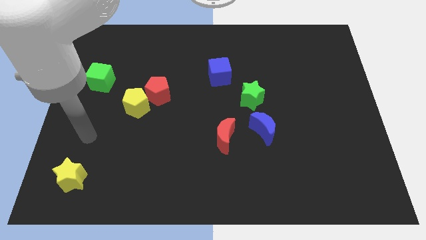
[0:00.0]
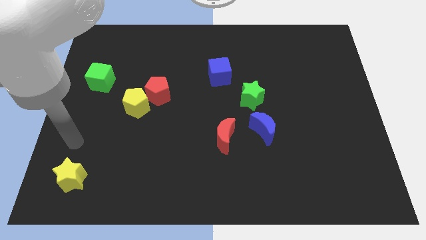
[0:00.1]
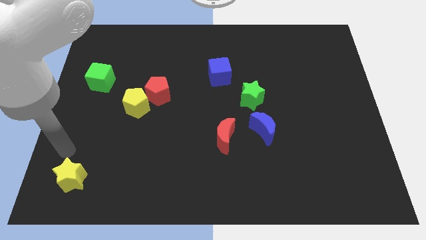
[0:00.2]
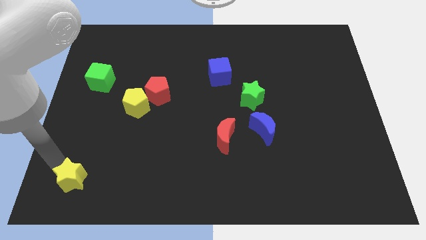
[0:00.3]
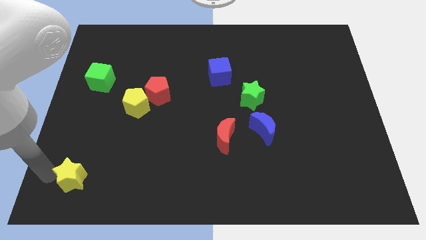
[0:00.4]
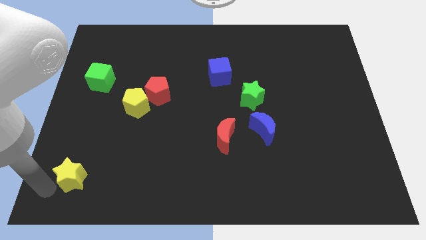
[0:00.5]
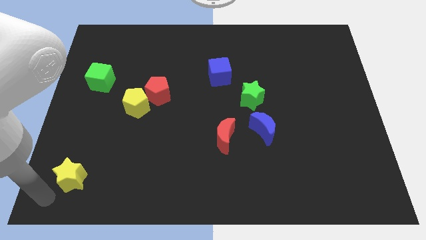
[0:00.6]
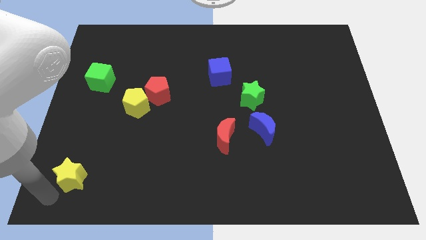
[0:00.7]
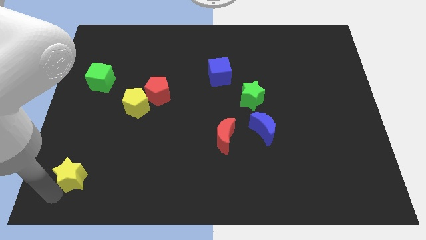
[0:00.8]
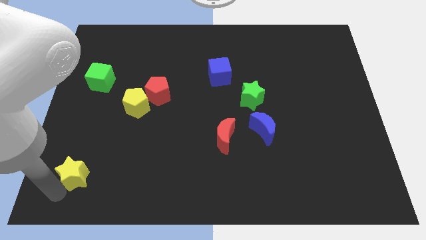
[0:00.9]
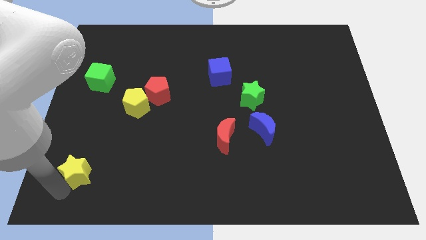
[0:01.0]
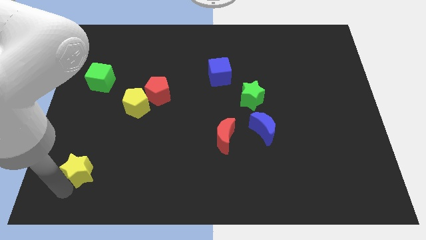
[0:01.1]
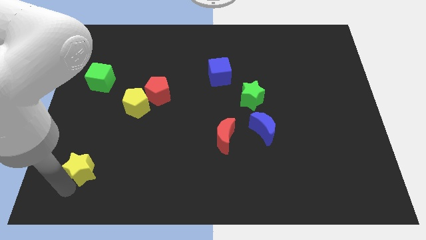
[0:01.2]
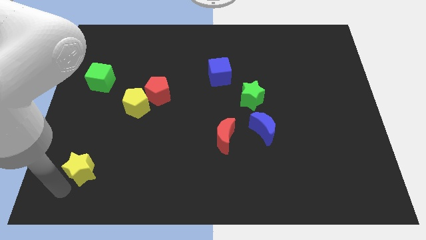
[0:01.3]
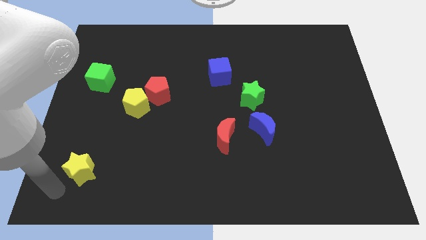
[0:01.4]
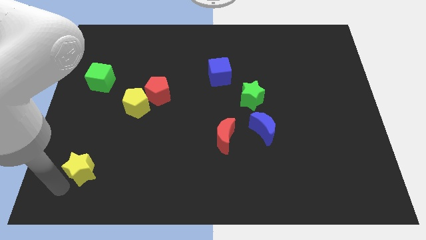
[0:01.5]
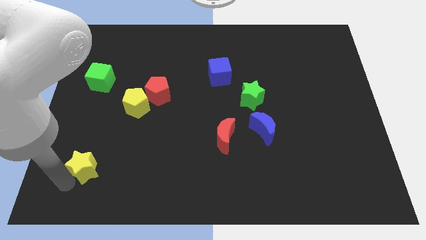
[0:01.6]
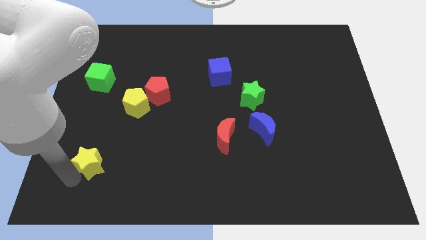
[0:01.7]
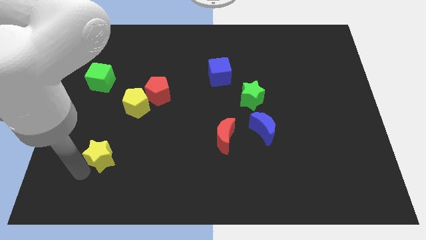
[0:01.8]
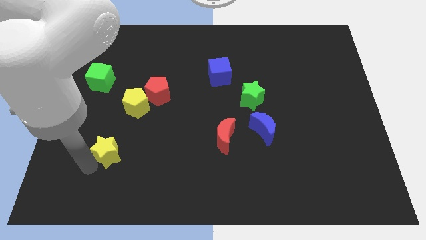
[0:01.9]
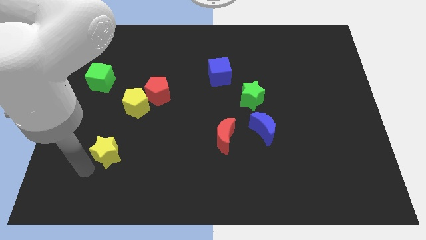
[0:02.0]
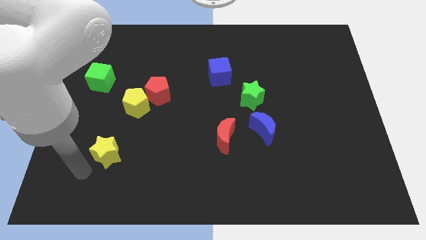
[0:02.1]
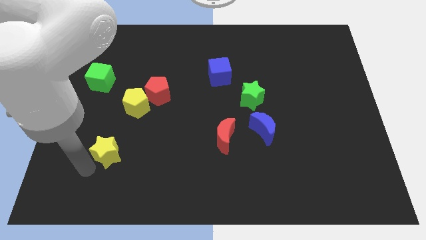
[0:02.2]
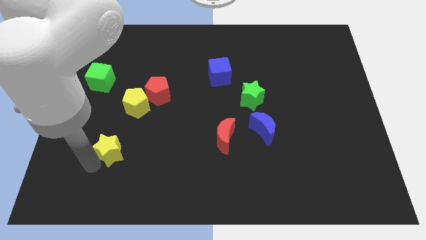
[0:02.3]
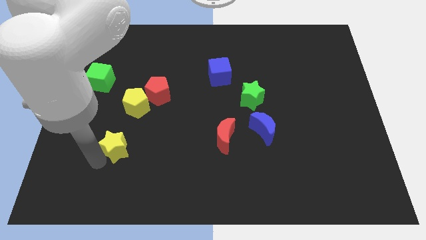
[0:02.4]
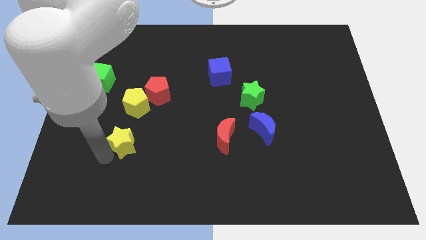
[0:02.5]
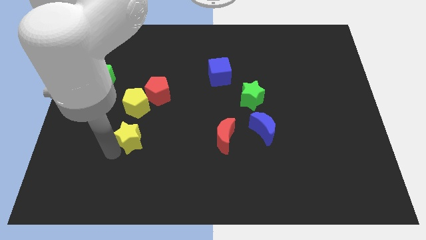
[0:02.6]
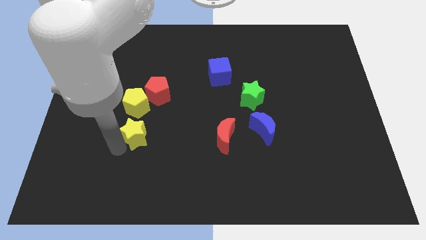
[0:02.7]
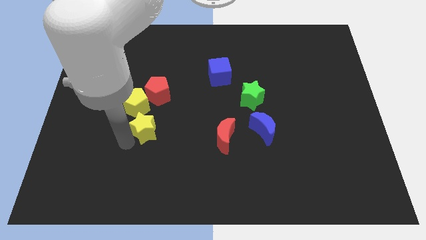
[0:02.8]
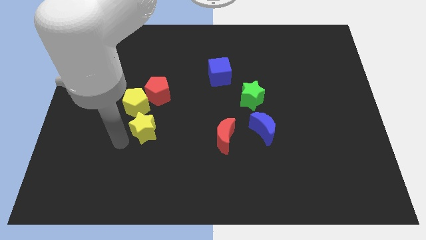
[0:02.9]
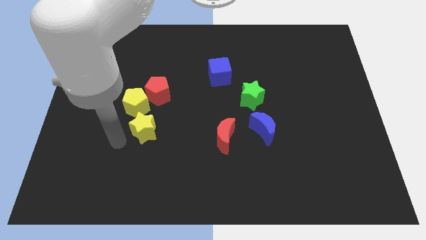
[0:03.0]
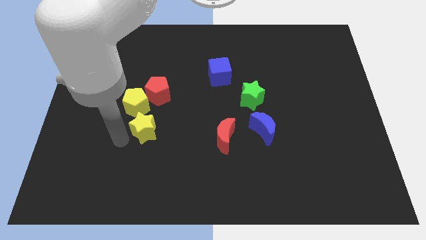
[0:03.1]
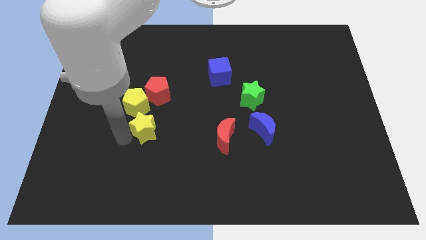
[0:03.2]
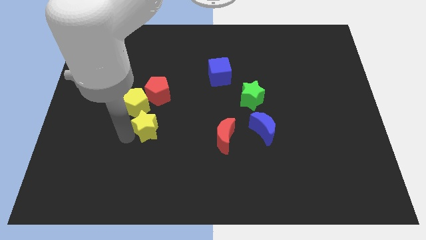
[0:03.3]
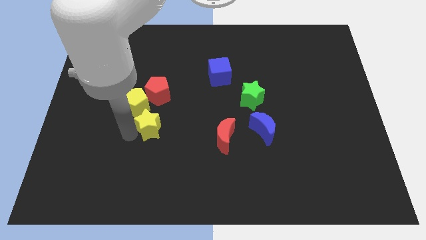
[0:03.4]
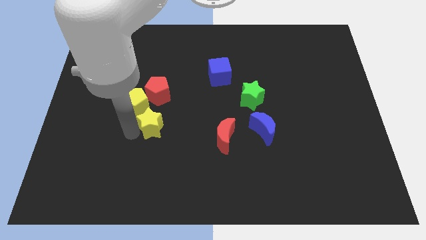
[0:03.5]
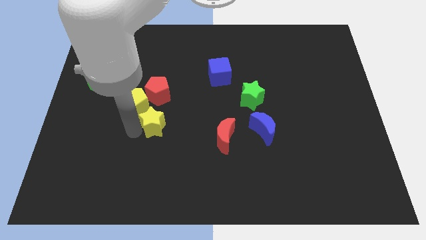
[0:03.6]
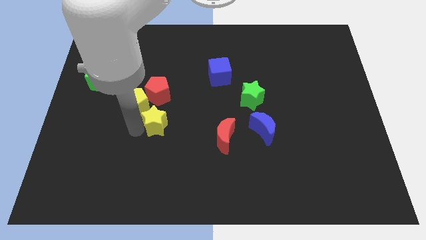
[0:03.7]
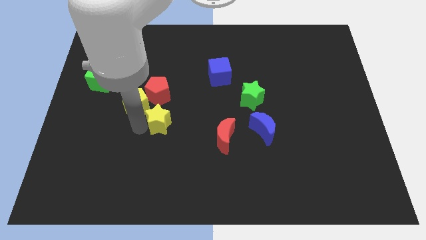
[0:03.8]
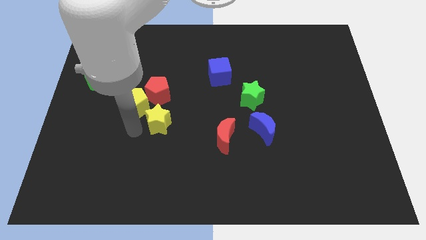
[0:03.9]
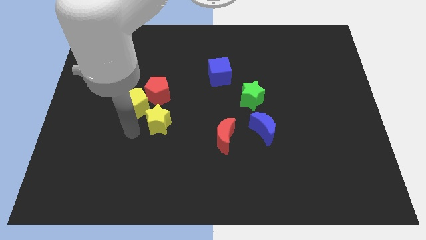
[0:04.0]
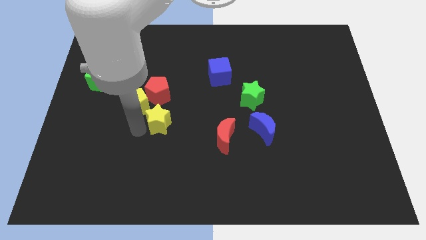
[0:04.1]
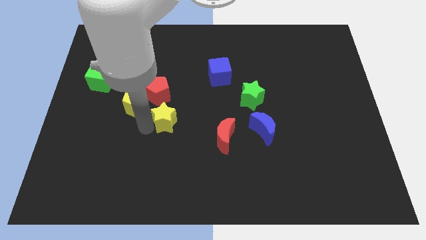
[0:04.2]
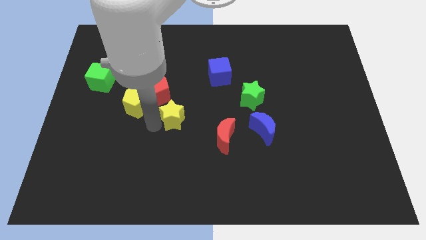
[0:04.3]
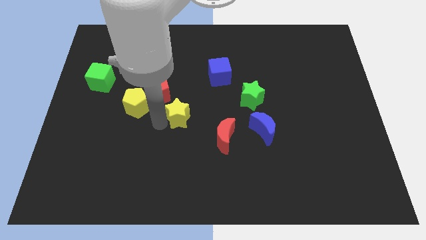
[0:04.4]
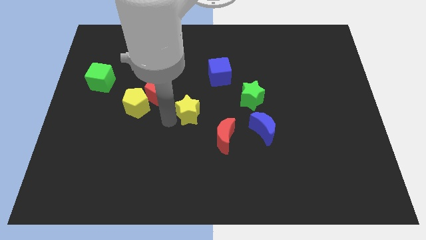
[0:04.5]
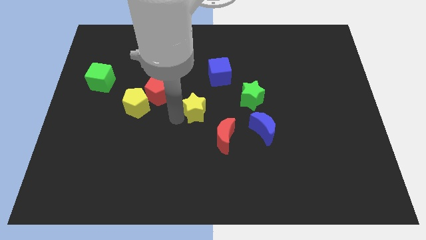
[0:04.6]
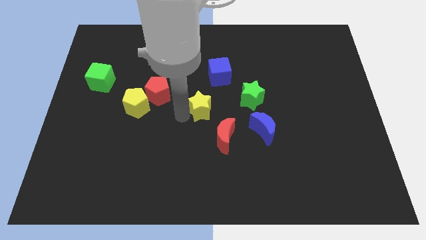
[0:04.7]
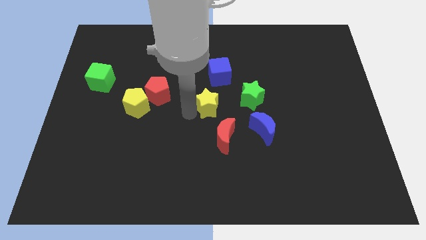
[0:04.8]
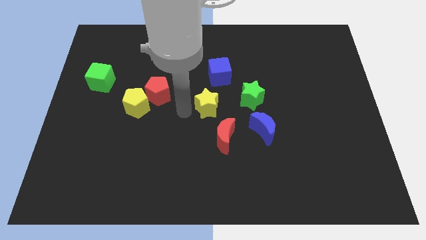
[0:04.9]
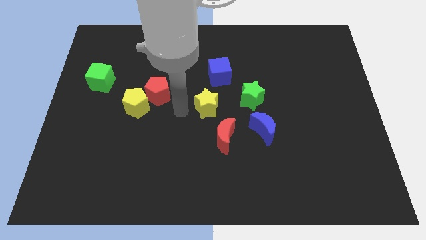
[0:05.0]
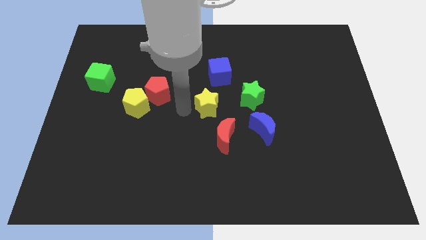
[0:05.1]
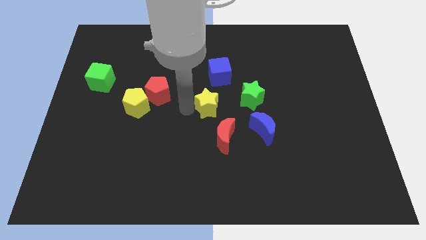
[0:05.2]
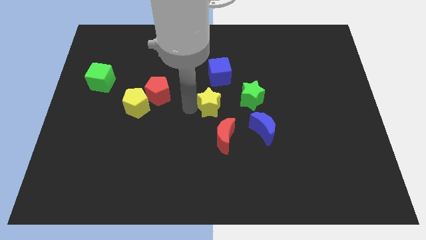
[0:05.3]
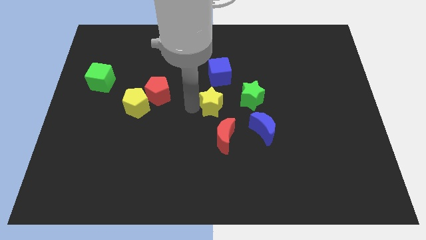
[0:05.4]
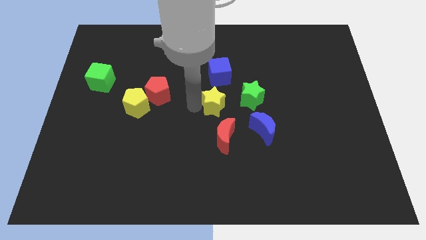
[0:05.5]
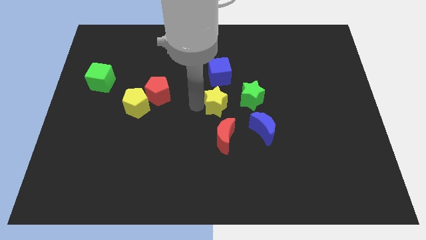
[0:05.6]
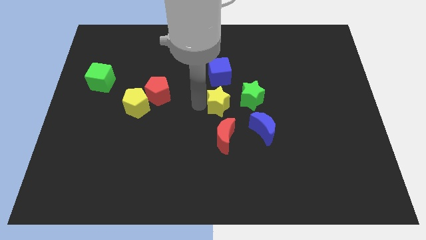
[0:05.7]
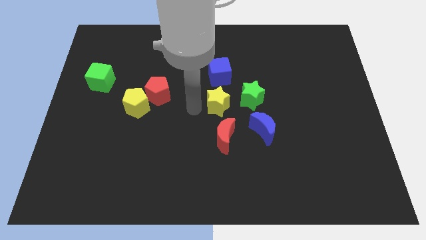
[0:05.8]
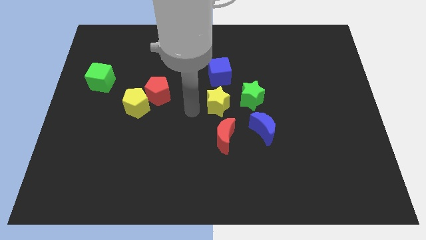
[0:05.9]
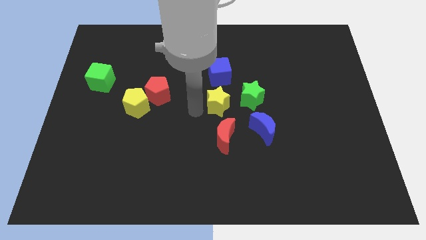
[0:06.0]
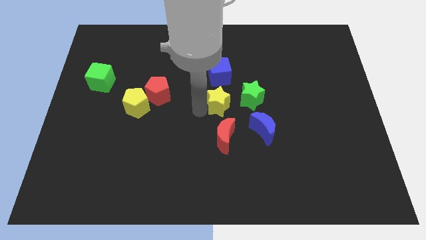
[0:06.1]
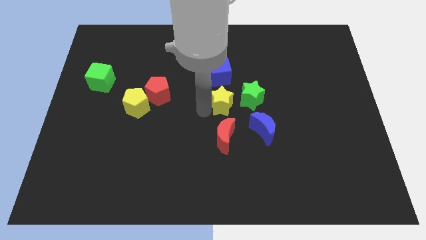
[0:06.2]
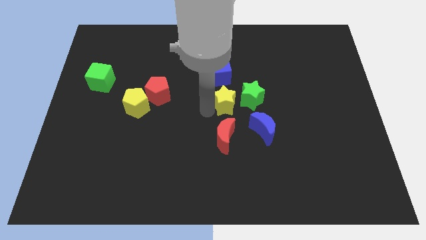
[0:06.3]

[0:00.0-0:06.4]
slide the yellow star to the green star
